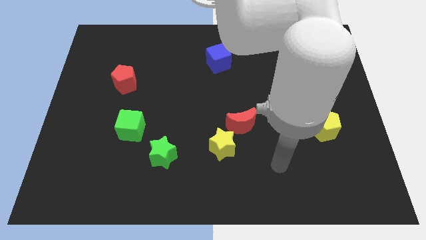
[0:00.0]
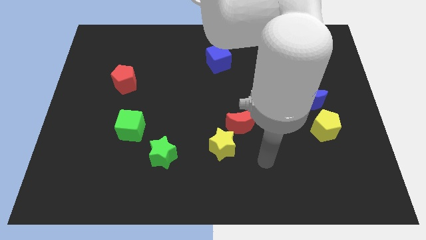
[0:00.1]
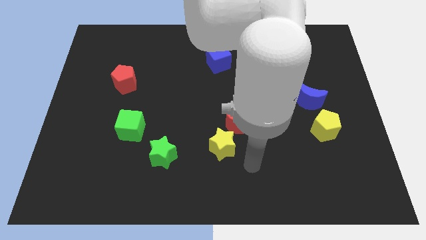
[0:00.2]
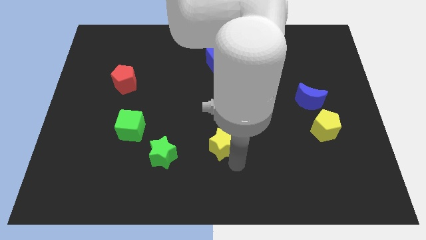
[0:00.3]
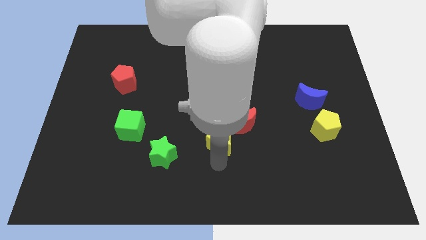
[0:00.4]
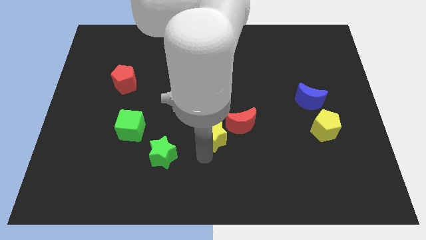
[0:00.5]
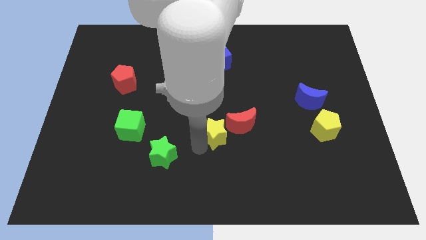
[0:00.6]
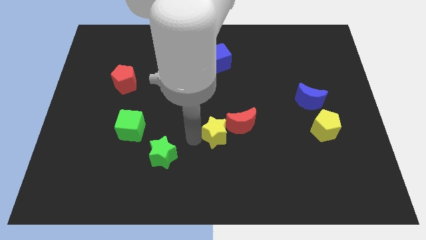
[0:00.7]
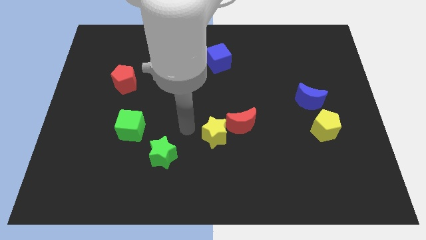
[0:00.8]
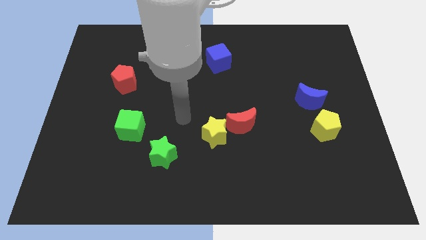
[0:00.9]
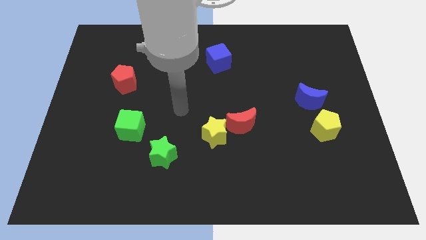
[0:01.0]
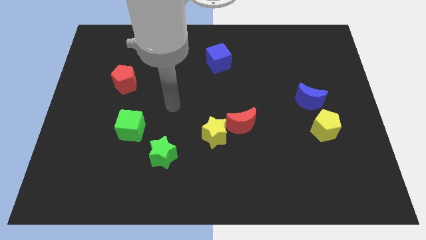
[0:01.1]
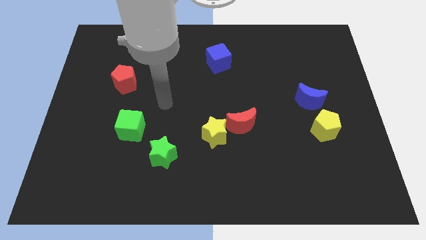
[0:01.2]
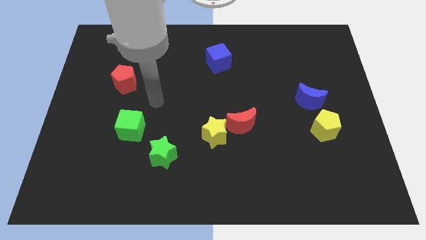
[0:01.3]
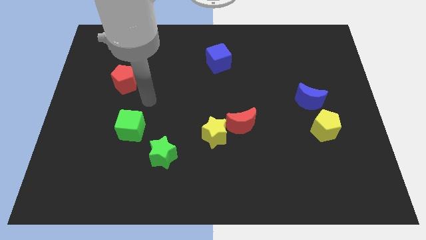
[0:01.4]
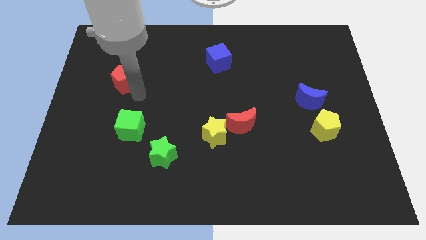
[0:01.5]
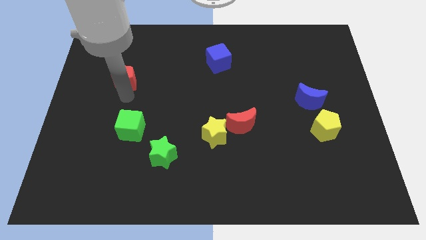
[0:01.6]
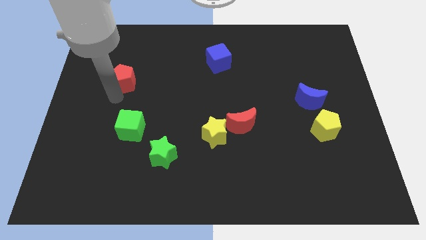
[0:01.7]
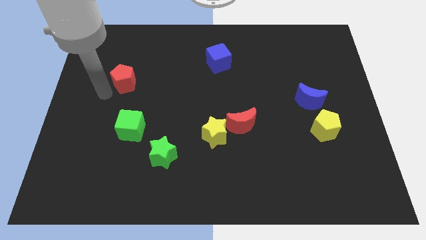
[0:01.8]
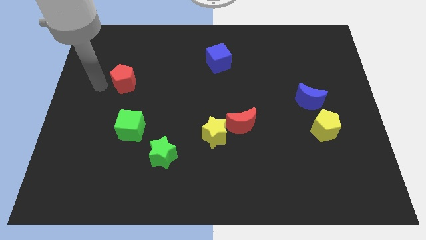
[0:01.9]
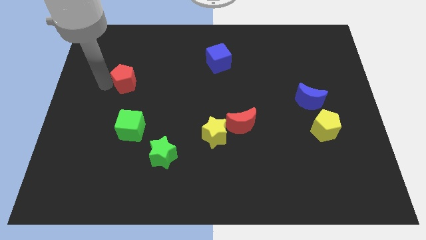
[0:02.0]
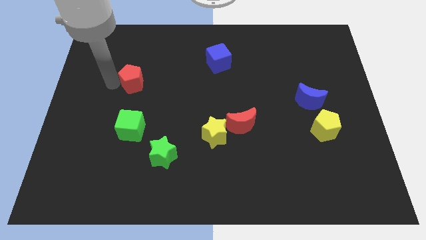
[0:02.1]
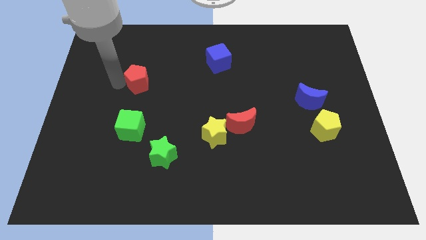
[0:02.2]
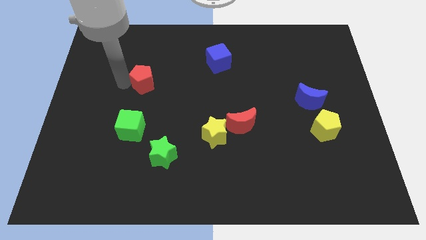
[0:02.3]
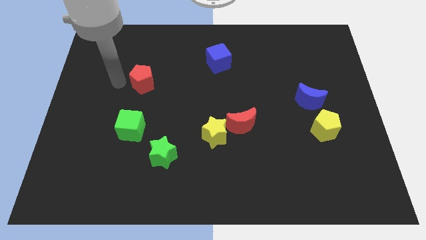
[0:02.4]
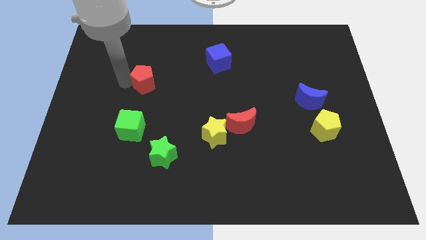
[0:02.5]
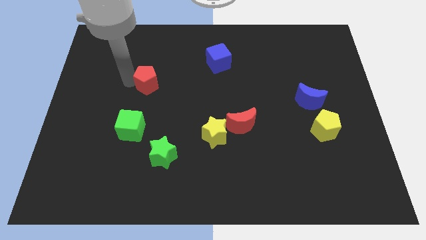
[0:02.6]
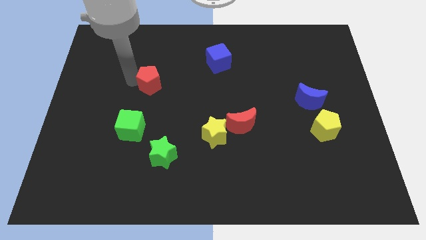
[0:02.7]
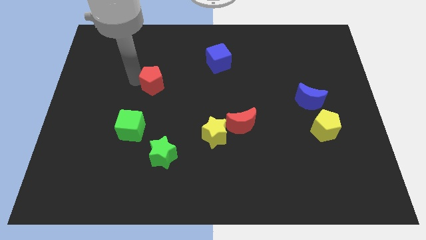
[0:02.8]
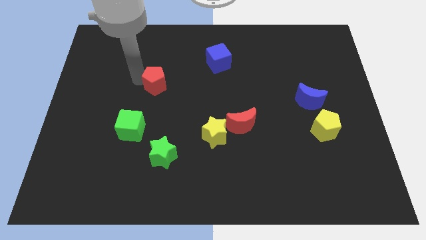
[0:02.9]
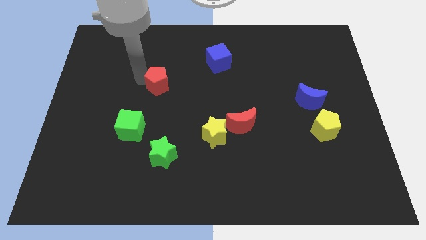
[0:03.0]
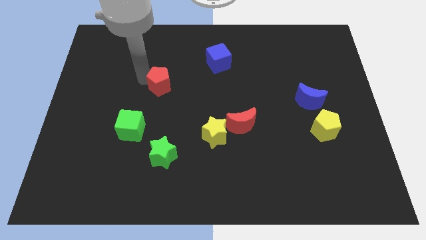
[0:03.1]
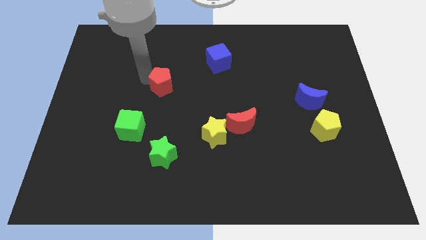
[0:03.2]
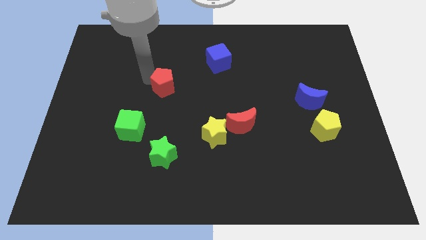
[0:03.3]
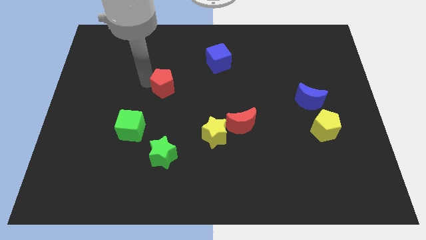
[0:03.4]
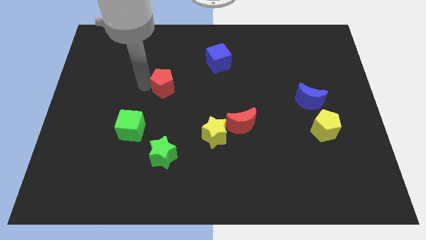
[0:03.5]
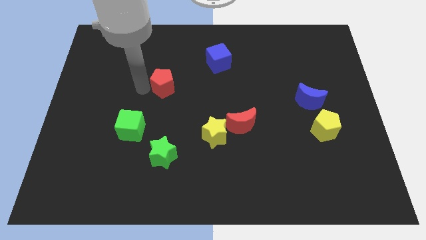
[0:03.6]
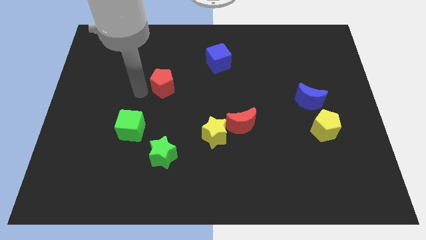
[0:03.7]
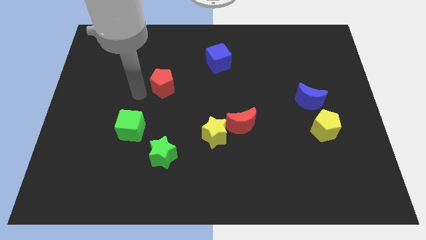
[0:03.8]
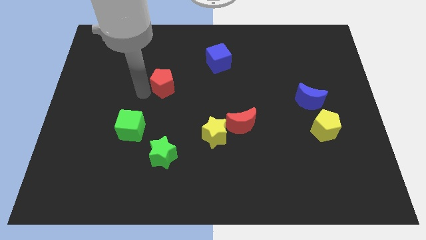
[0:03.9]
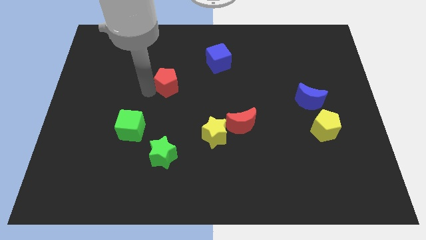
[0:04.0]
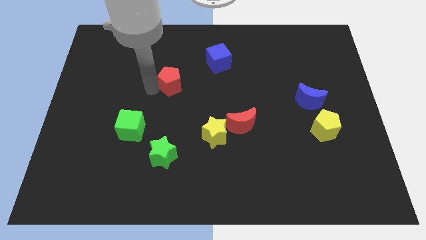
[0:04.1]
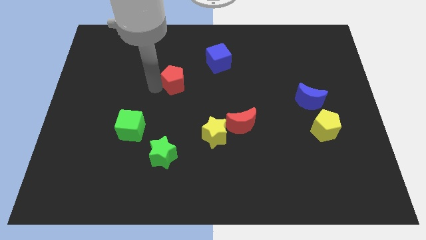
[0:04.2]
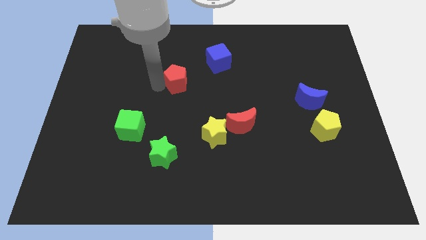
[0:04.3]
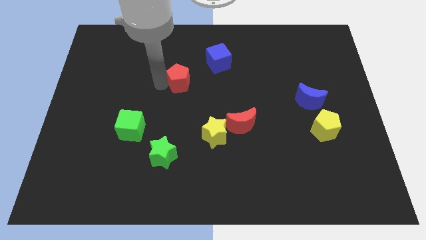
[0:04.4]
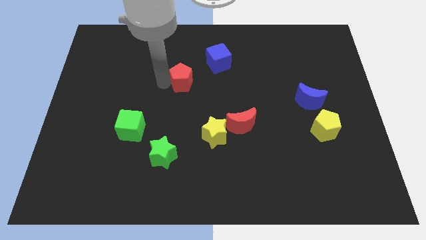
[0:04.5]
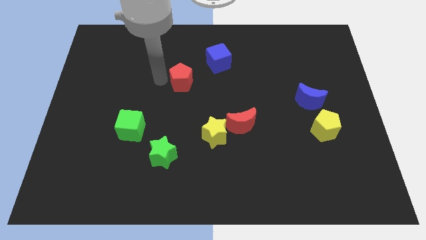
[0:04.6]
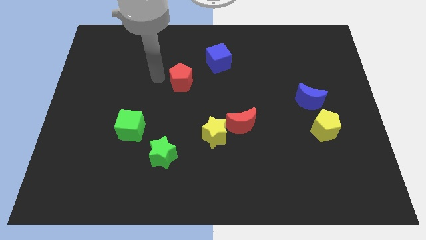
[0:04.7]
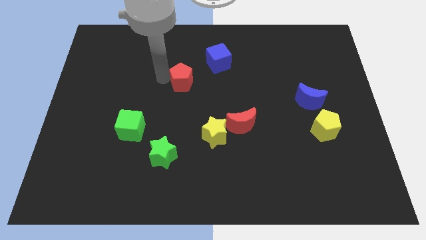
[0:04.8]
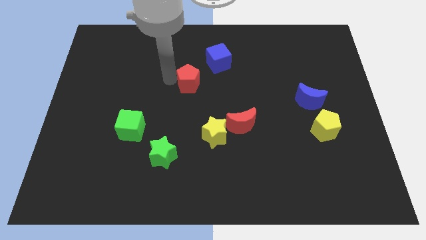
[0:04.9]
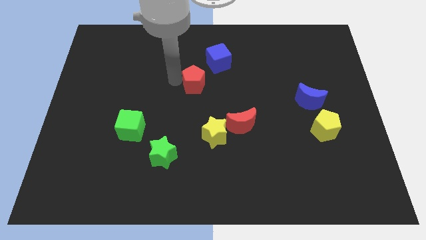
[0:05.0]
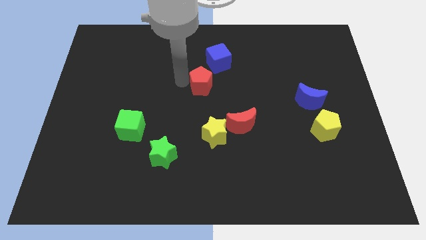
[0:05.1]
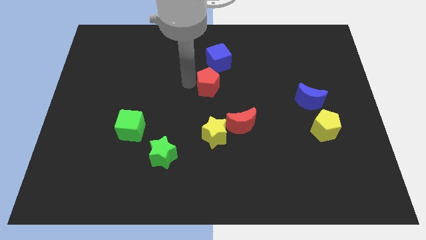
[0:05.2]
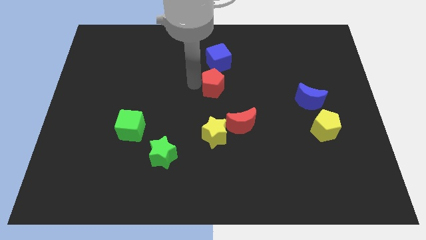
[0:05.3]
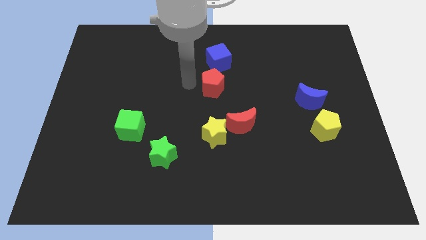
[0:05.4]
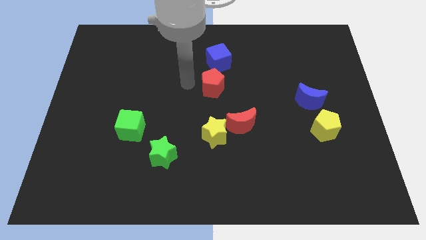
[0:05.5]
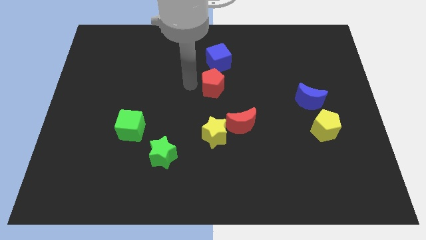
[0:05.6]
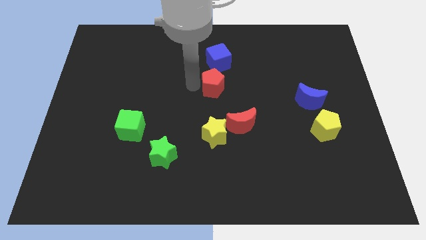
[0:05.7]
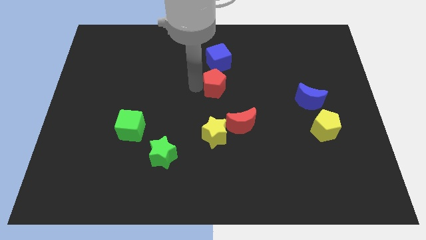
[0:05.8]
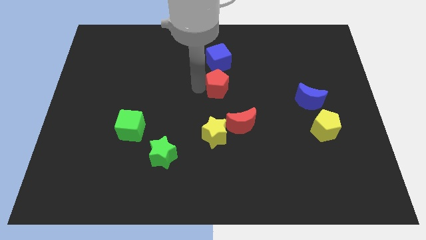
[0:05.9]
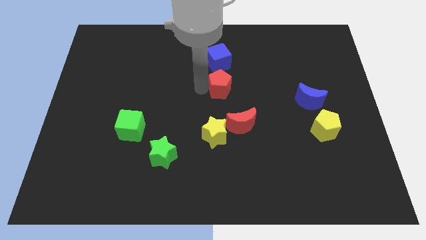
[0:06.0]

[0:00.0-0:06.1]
push the red pentagon to the top side of the red moon

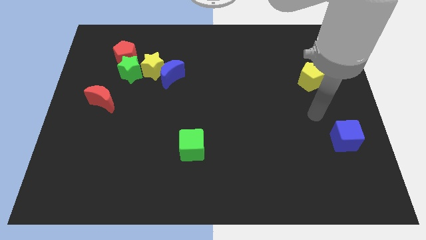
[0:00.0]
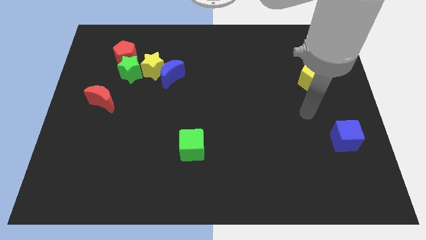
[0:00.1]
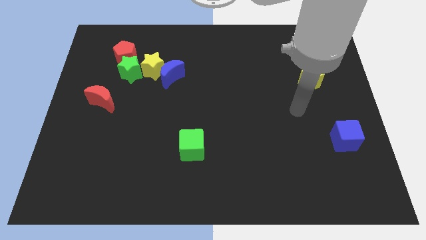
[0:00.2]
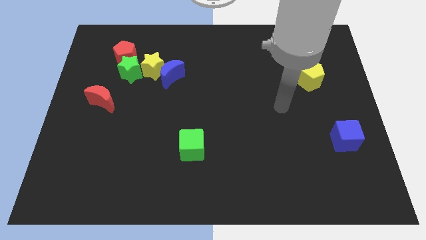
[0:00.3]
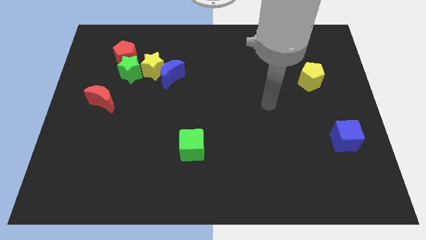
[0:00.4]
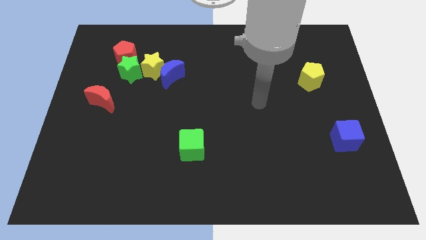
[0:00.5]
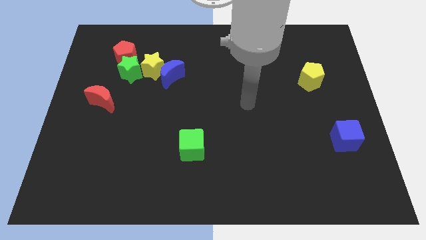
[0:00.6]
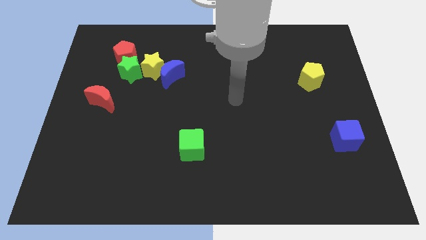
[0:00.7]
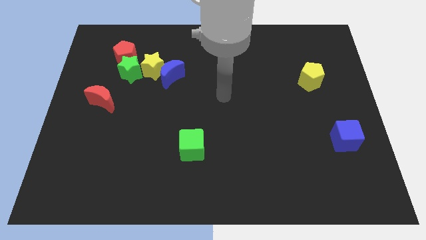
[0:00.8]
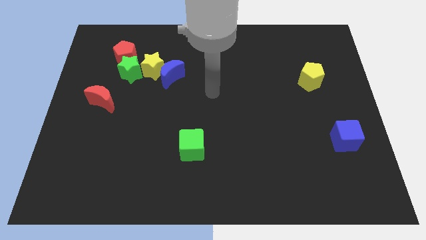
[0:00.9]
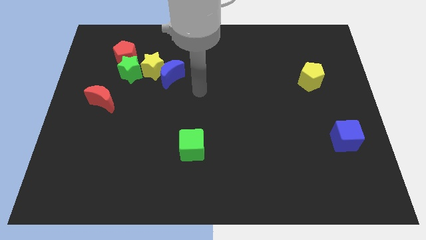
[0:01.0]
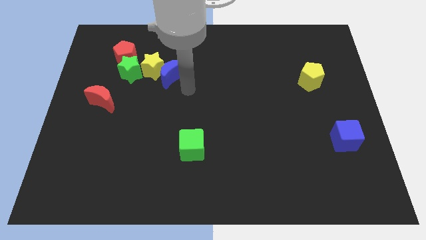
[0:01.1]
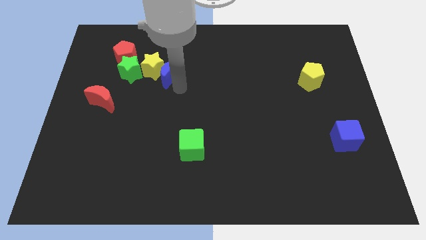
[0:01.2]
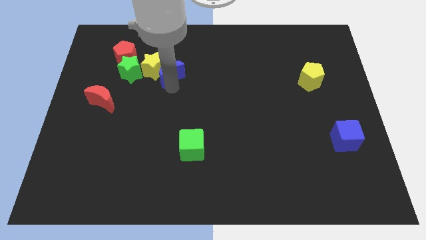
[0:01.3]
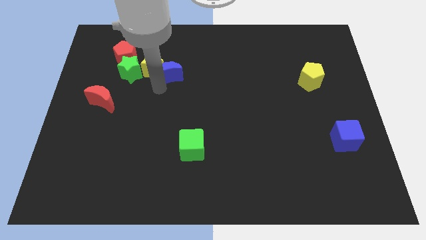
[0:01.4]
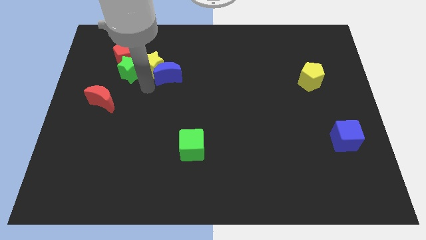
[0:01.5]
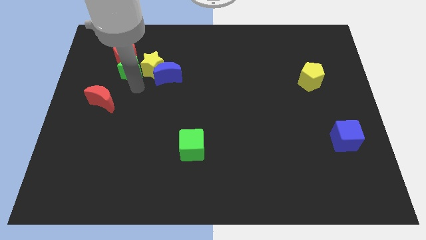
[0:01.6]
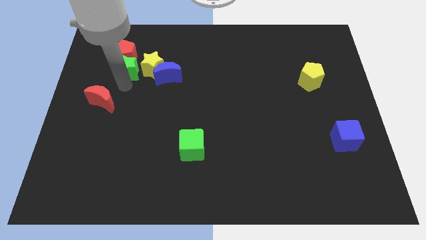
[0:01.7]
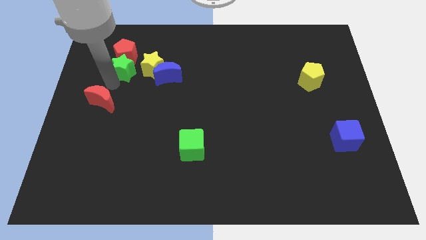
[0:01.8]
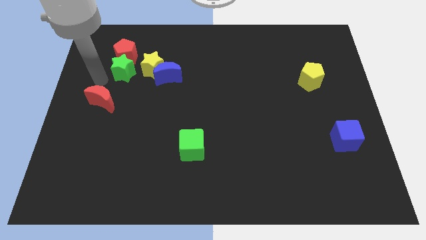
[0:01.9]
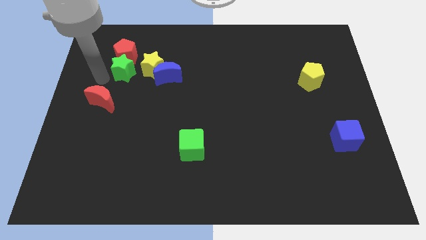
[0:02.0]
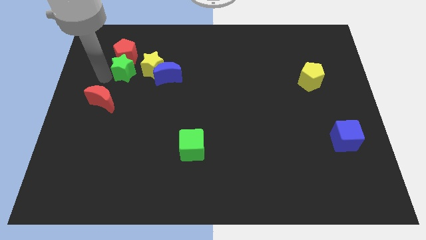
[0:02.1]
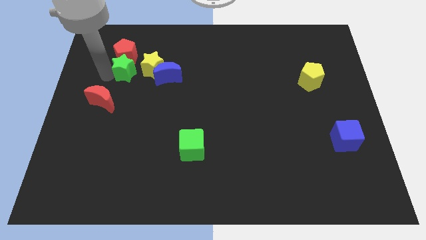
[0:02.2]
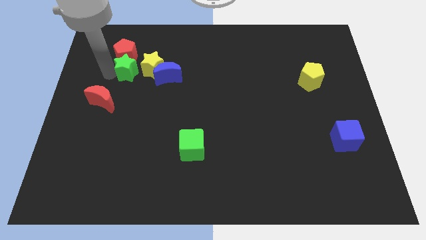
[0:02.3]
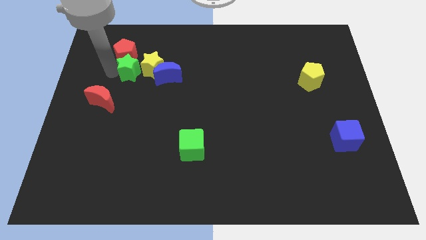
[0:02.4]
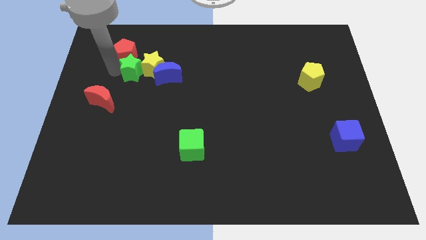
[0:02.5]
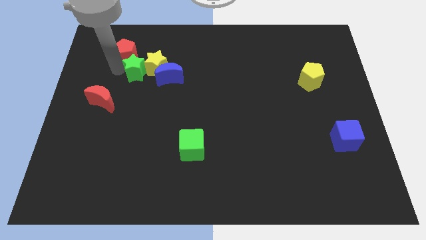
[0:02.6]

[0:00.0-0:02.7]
put the green star to the top left side of the blue moon
